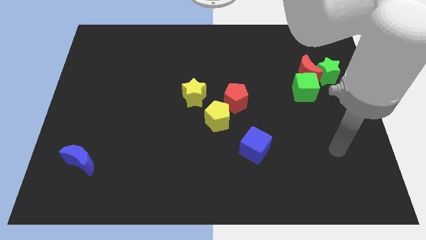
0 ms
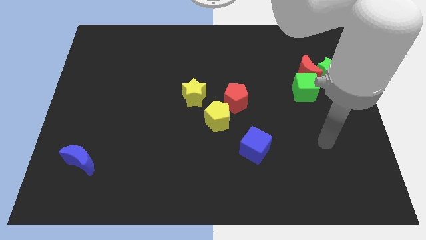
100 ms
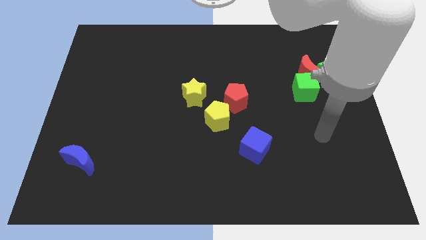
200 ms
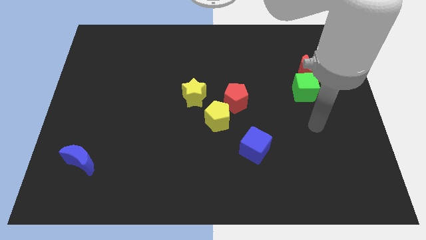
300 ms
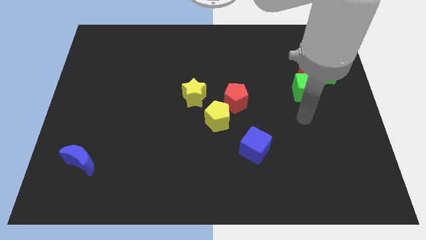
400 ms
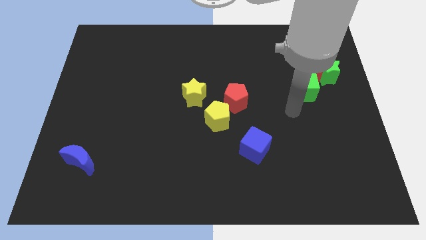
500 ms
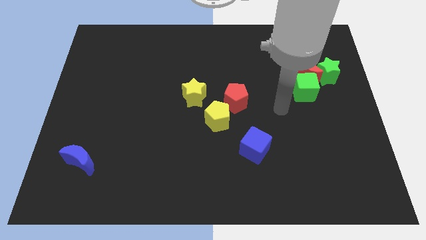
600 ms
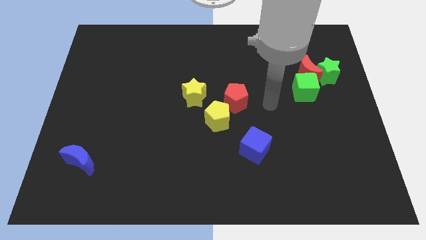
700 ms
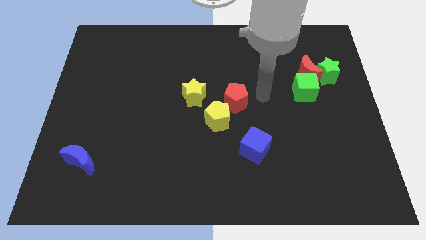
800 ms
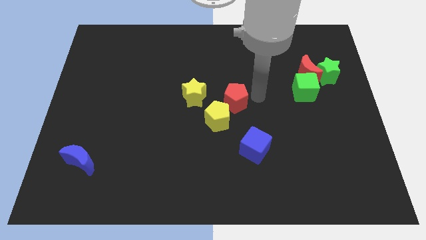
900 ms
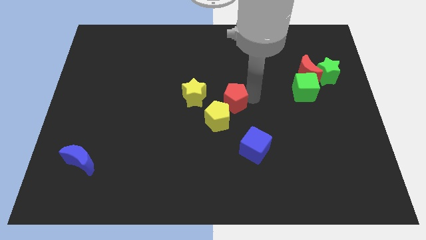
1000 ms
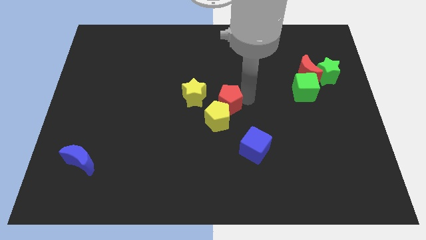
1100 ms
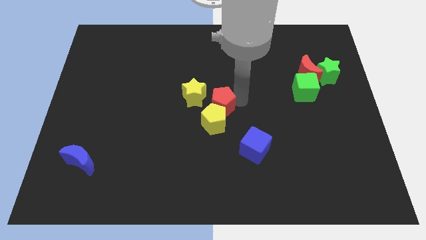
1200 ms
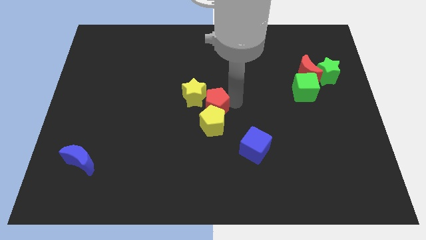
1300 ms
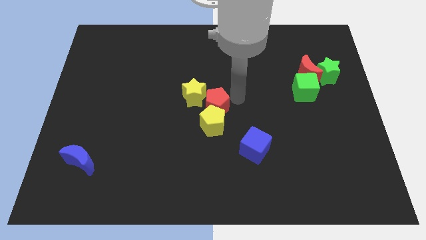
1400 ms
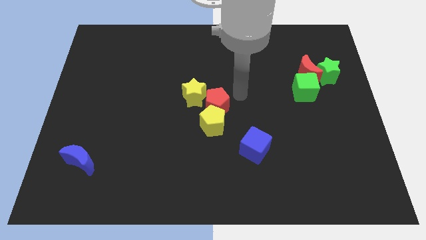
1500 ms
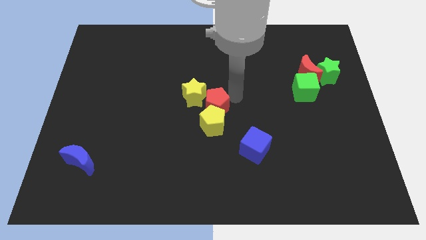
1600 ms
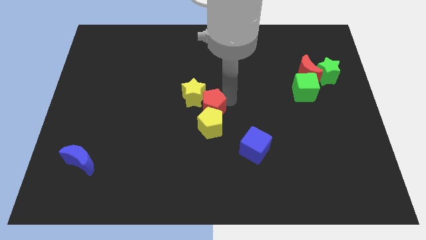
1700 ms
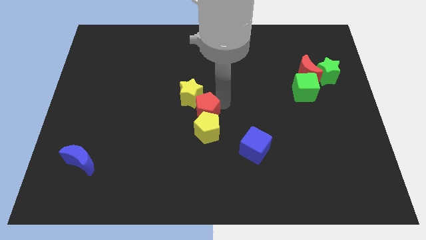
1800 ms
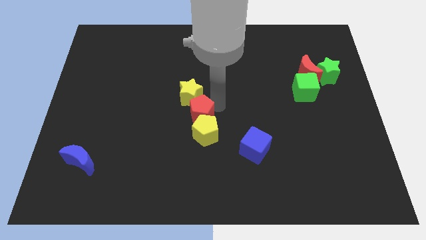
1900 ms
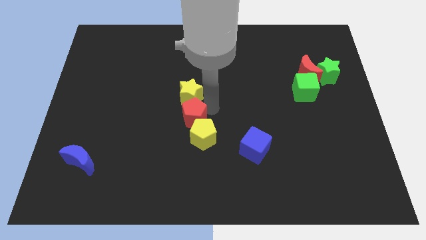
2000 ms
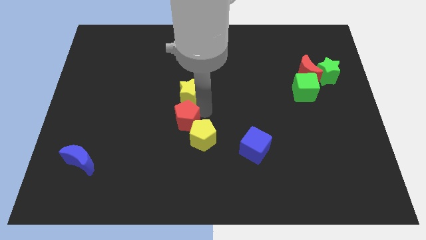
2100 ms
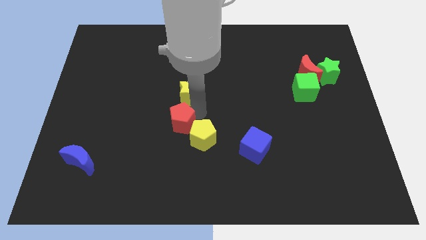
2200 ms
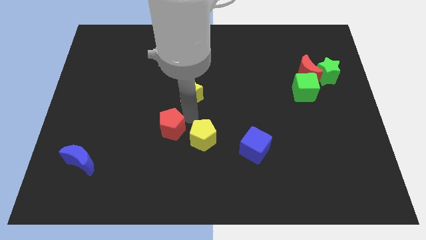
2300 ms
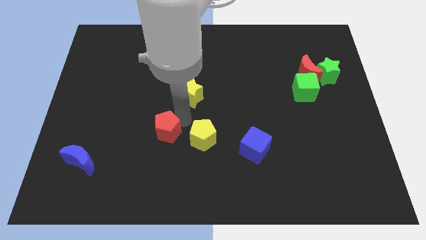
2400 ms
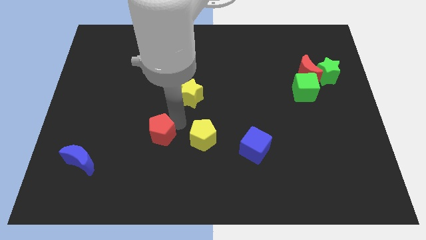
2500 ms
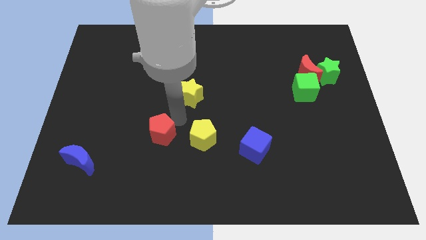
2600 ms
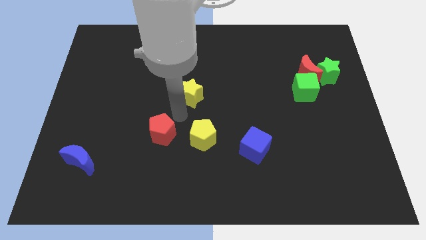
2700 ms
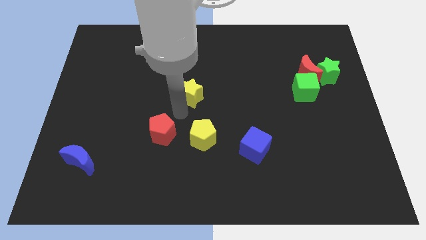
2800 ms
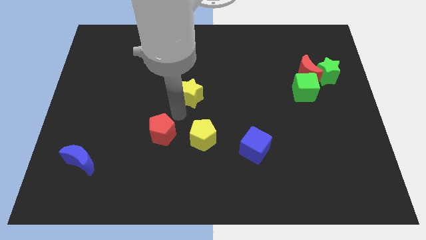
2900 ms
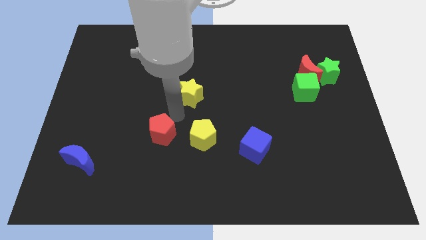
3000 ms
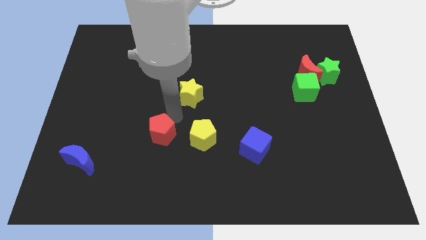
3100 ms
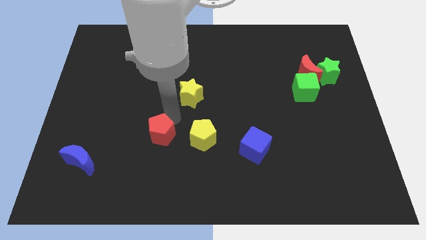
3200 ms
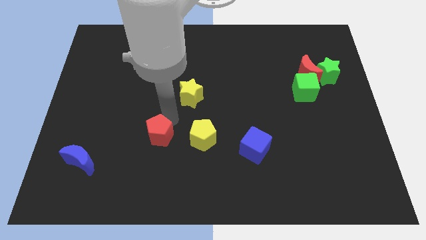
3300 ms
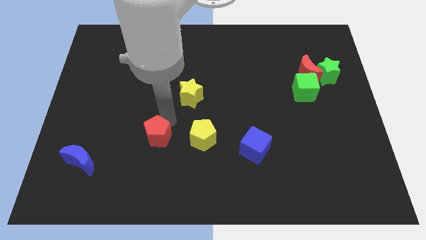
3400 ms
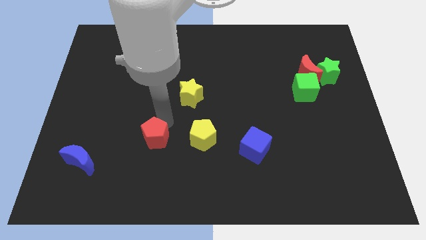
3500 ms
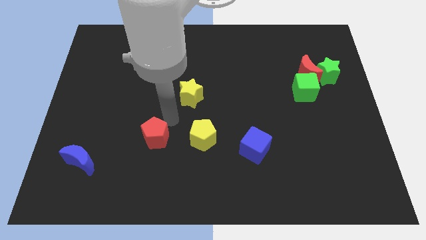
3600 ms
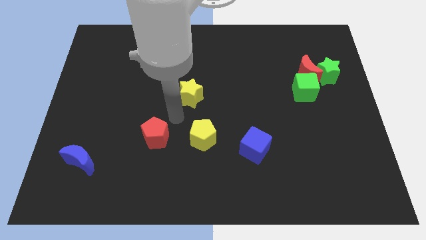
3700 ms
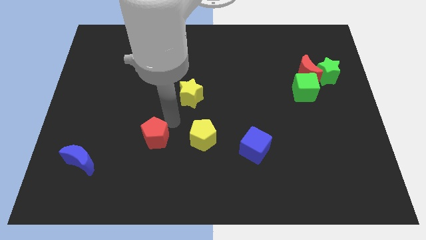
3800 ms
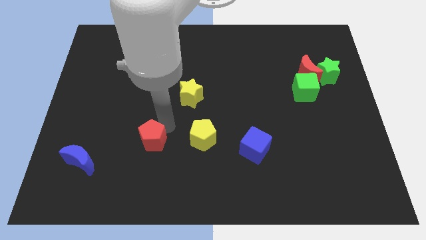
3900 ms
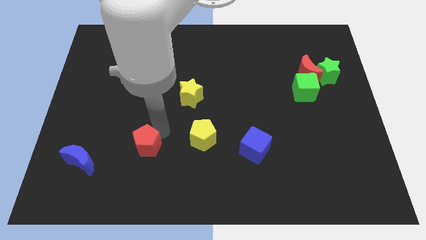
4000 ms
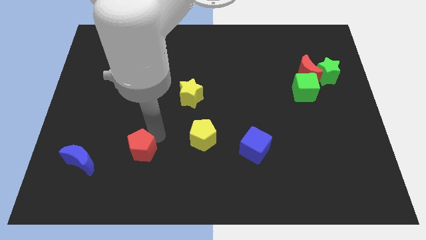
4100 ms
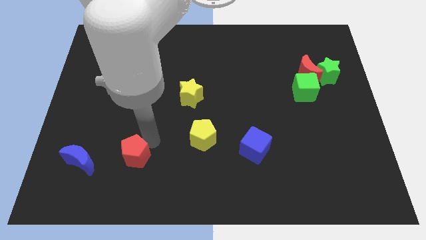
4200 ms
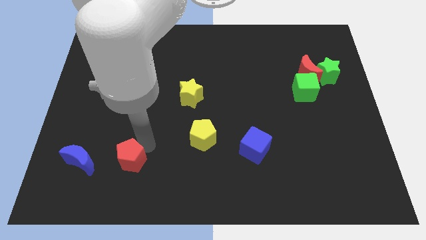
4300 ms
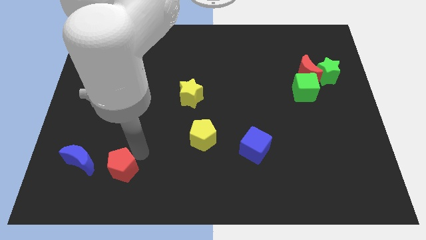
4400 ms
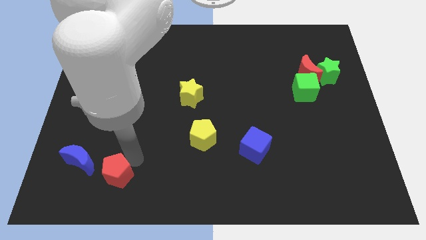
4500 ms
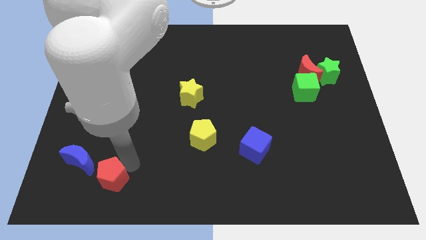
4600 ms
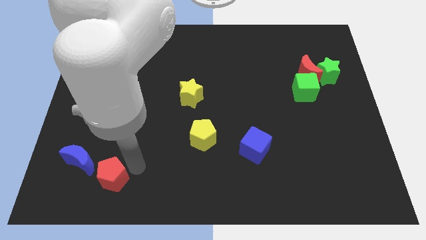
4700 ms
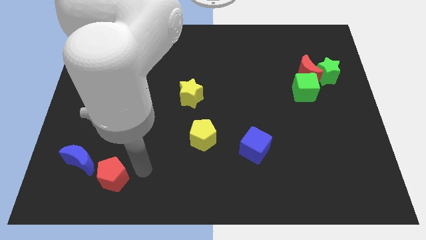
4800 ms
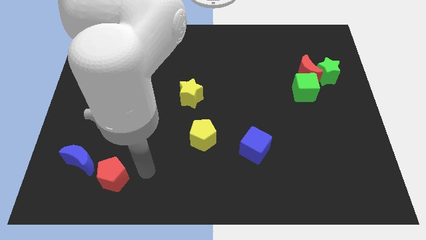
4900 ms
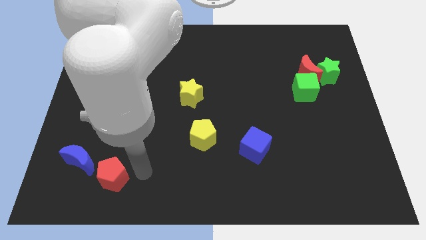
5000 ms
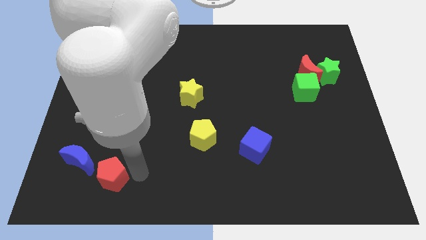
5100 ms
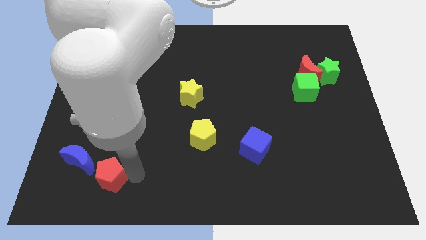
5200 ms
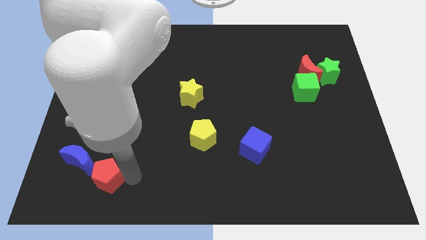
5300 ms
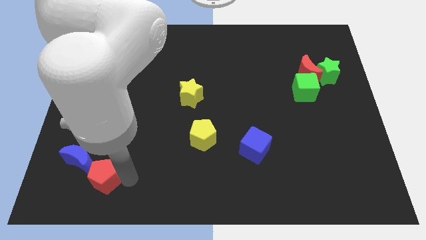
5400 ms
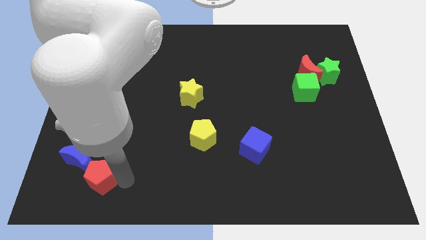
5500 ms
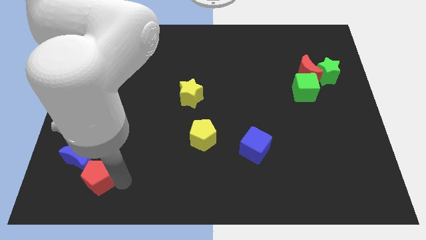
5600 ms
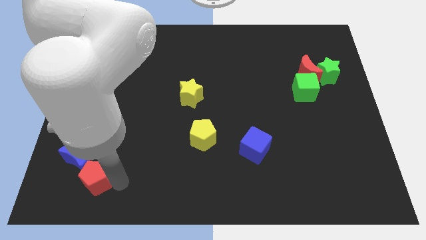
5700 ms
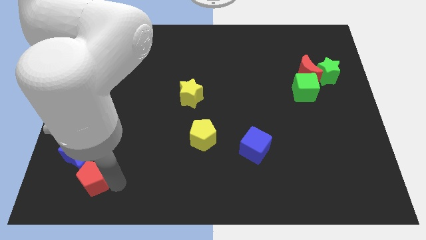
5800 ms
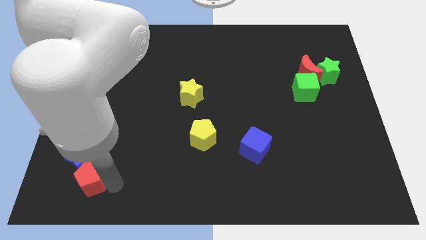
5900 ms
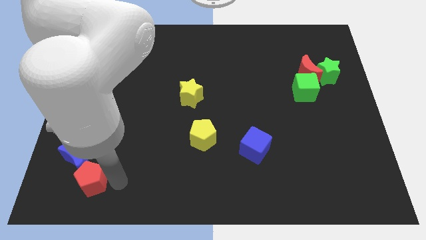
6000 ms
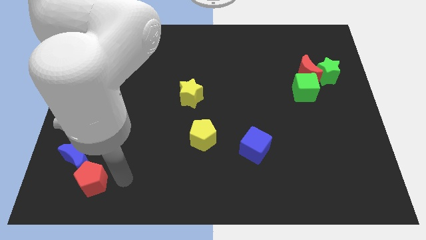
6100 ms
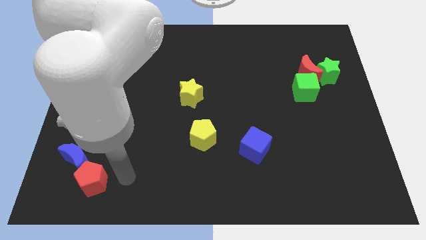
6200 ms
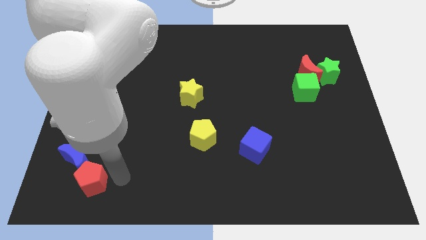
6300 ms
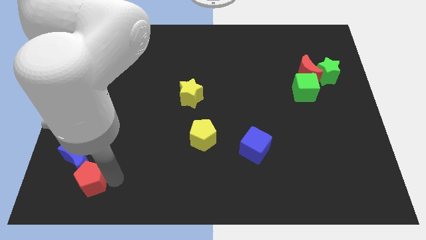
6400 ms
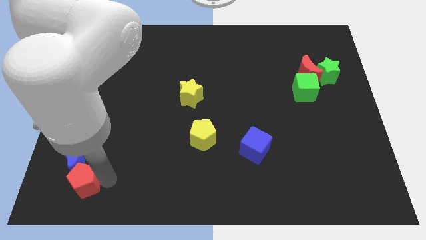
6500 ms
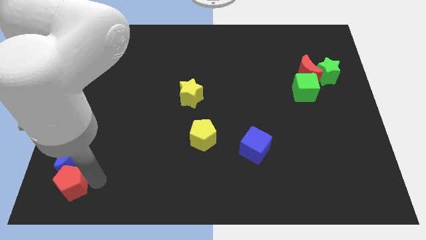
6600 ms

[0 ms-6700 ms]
move the red pentagon to the bottom left of the board
